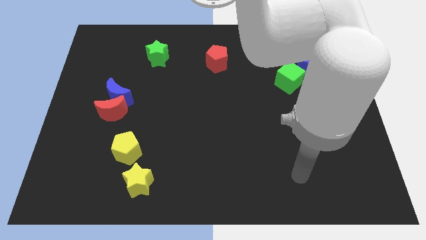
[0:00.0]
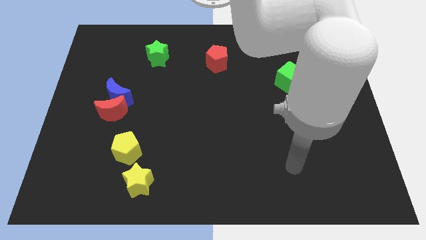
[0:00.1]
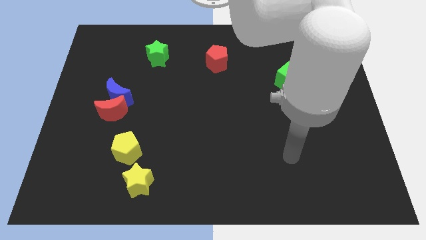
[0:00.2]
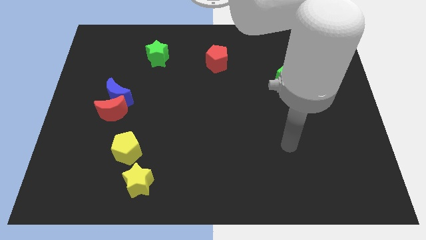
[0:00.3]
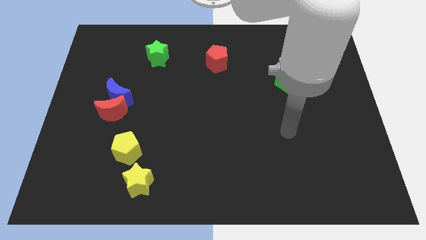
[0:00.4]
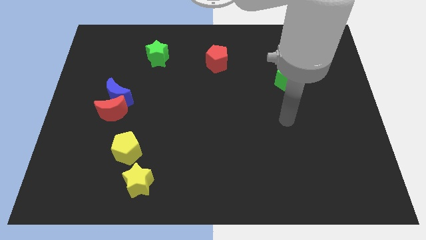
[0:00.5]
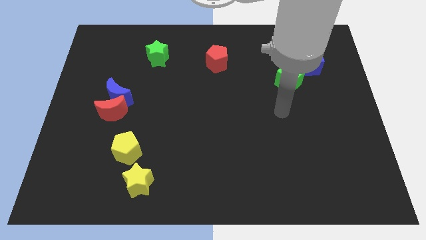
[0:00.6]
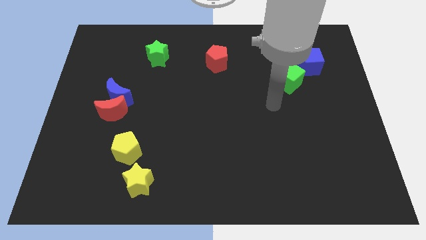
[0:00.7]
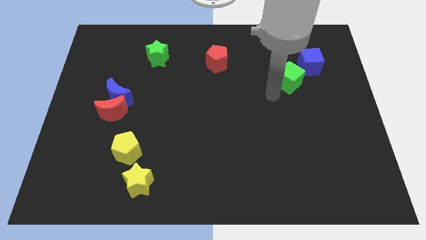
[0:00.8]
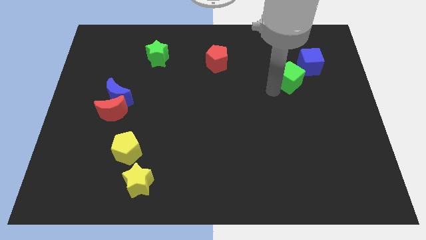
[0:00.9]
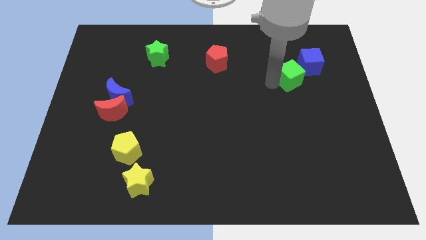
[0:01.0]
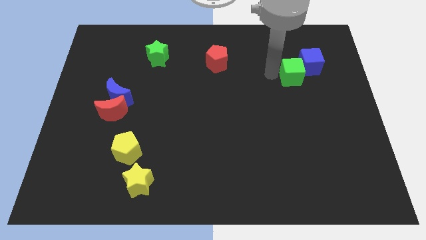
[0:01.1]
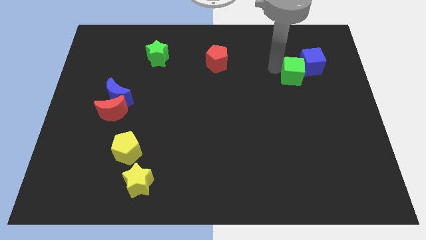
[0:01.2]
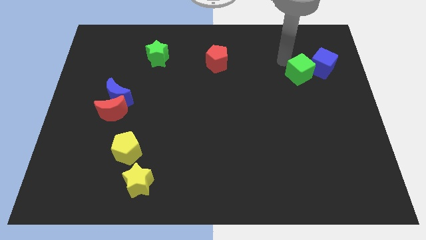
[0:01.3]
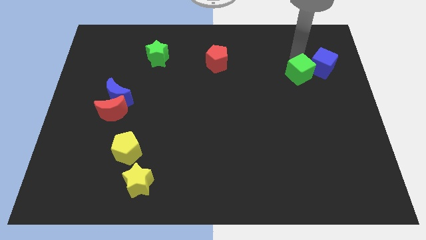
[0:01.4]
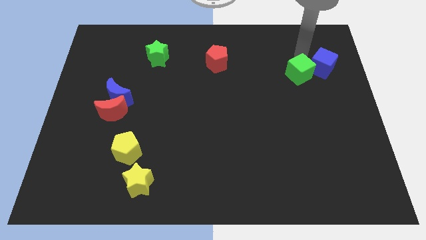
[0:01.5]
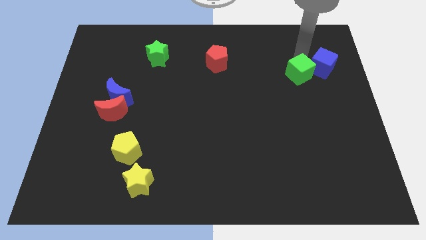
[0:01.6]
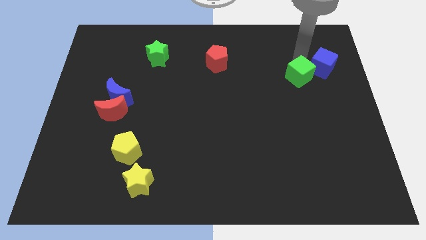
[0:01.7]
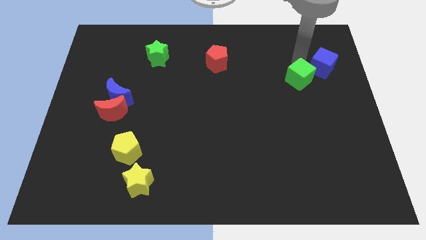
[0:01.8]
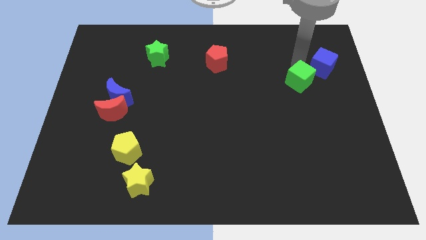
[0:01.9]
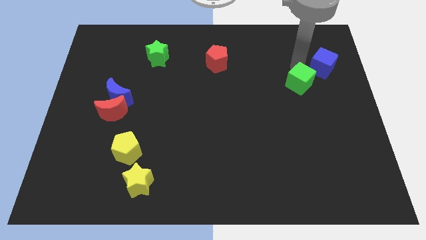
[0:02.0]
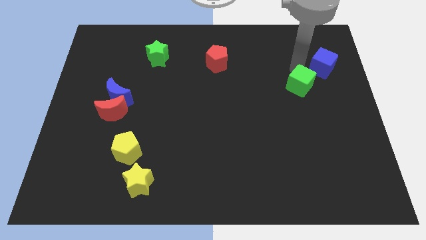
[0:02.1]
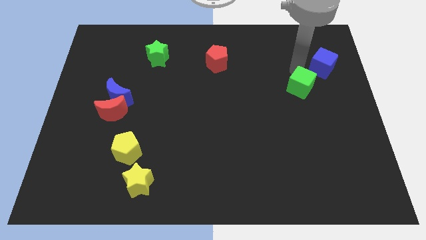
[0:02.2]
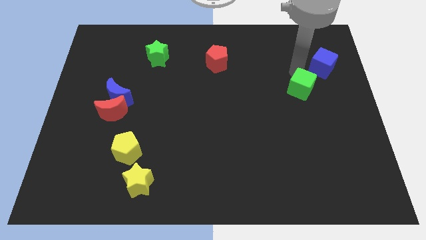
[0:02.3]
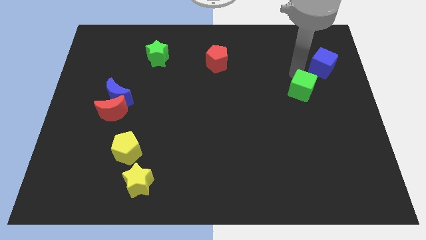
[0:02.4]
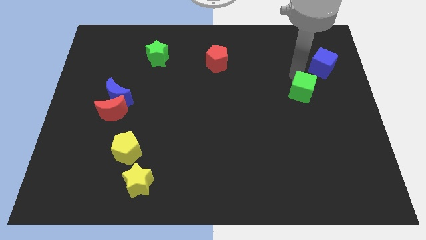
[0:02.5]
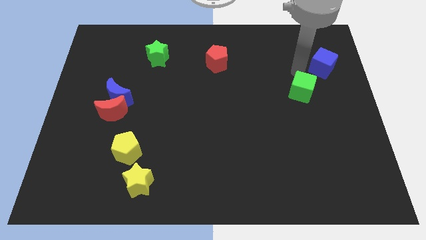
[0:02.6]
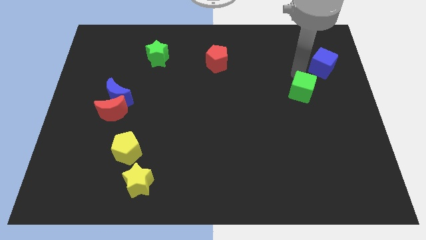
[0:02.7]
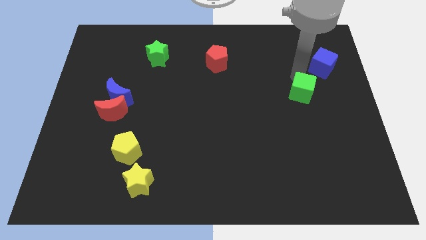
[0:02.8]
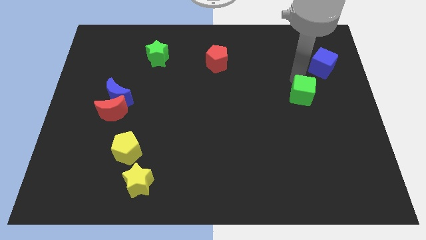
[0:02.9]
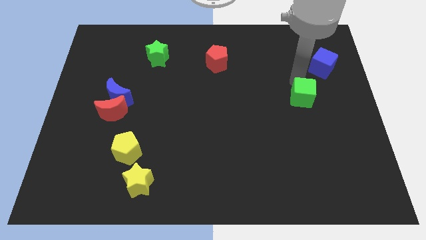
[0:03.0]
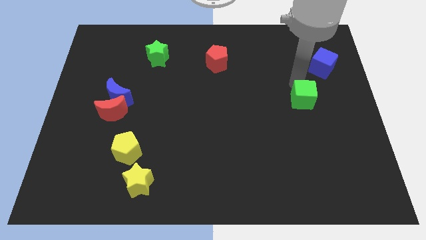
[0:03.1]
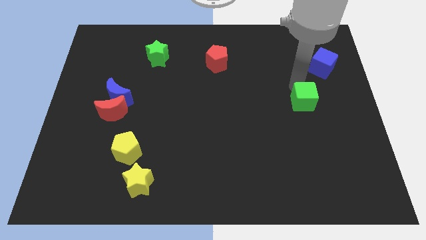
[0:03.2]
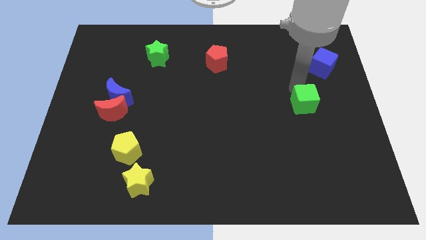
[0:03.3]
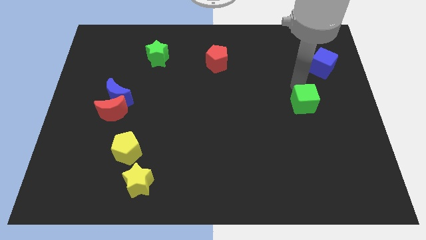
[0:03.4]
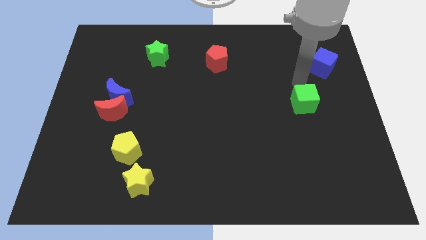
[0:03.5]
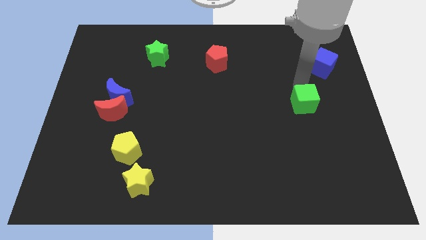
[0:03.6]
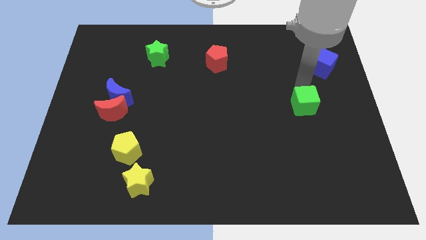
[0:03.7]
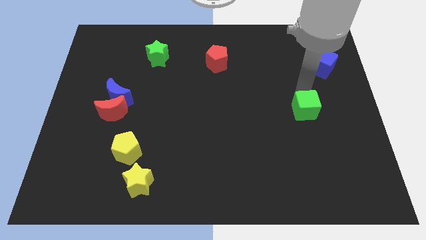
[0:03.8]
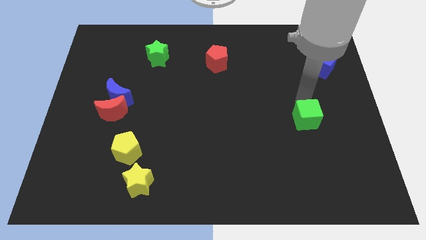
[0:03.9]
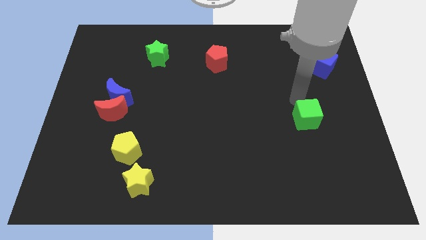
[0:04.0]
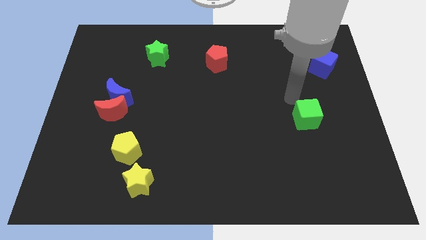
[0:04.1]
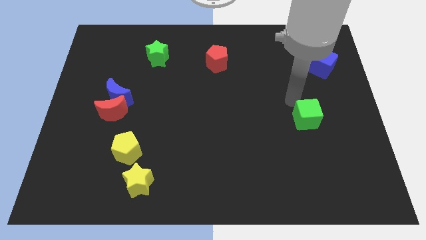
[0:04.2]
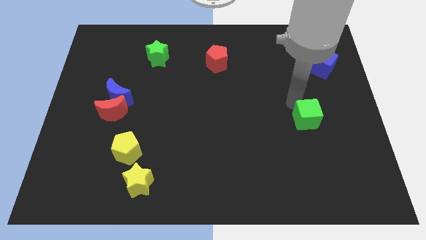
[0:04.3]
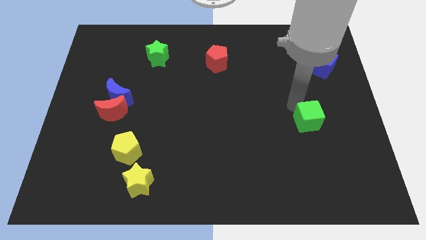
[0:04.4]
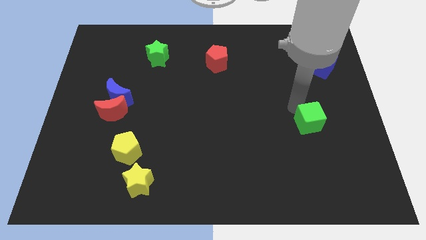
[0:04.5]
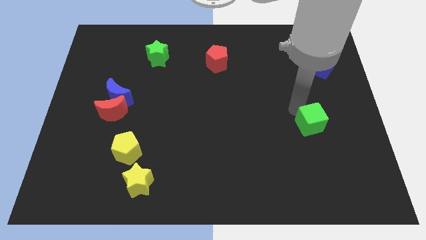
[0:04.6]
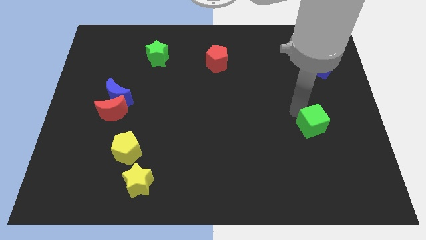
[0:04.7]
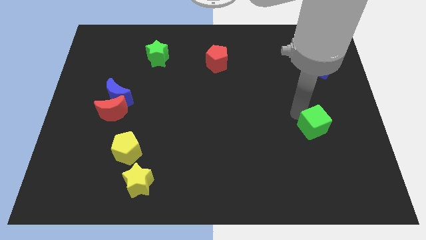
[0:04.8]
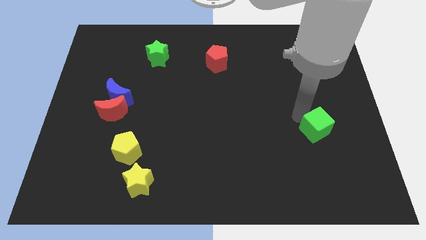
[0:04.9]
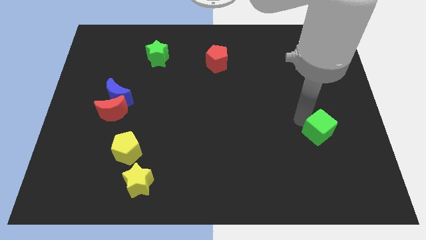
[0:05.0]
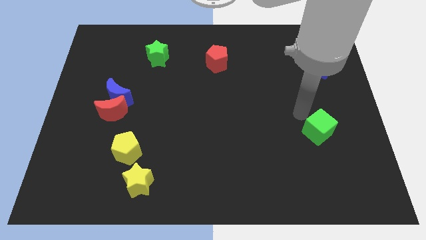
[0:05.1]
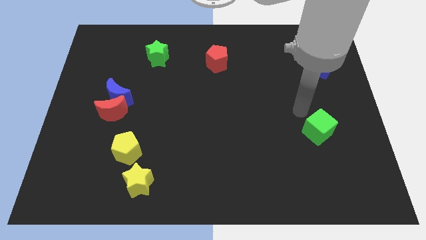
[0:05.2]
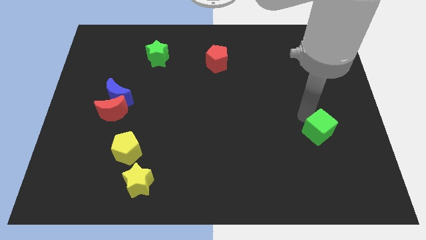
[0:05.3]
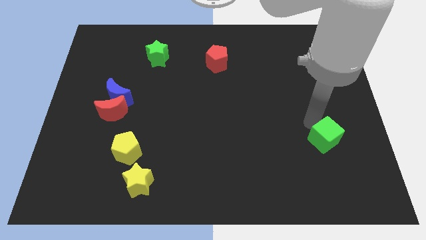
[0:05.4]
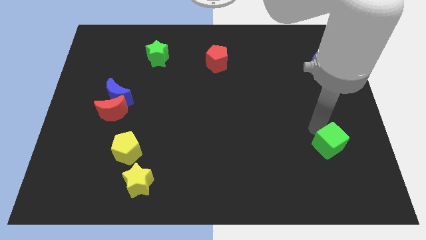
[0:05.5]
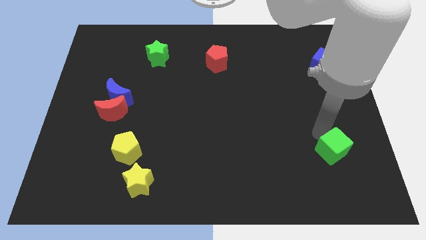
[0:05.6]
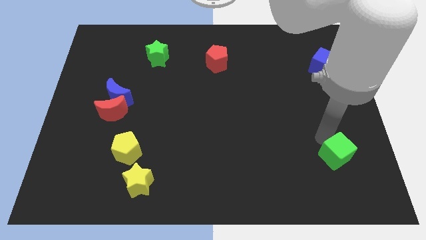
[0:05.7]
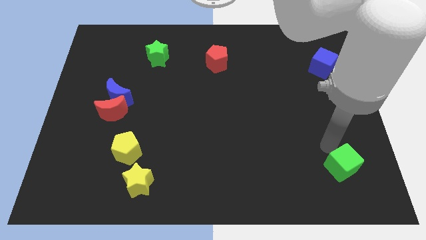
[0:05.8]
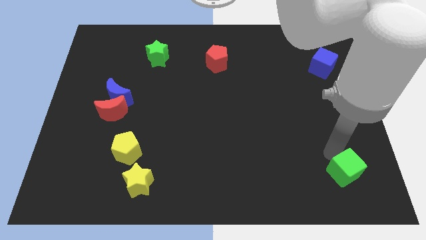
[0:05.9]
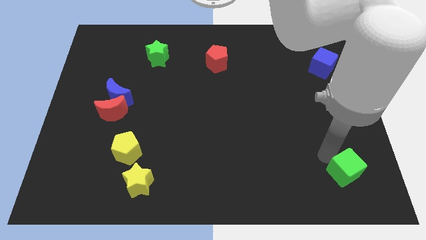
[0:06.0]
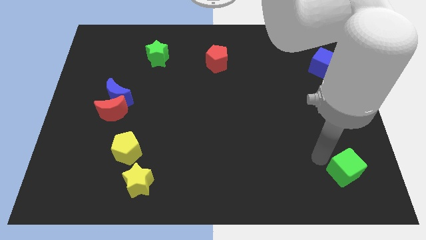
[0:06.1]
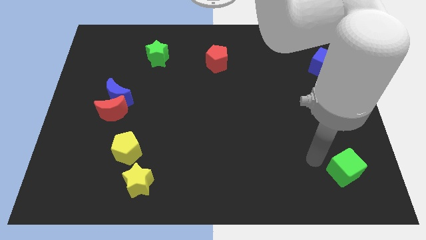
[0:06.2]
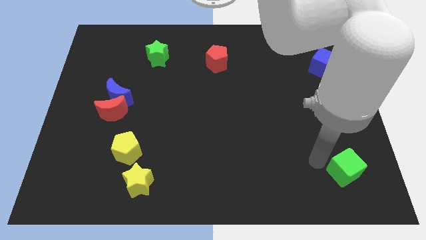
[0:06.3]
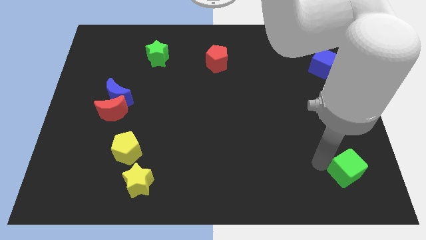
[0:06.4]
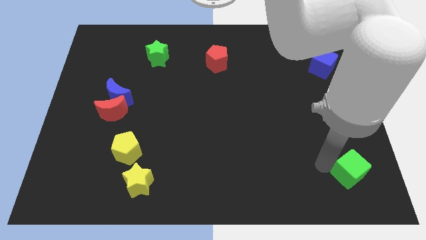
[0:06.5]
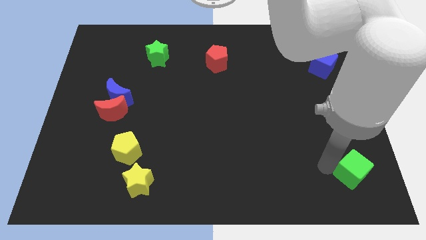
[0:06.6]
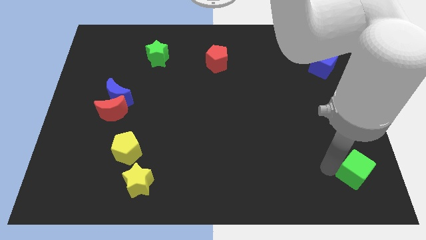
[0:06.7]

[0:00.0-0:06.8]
put the green cube to the bottom right
